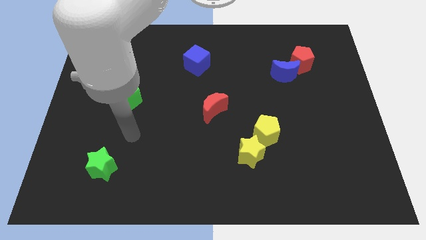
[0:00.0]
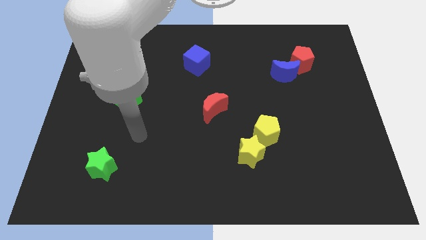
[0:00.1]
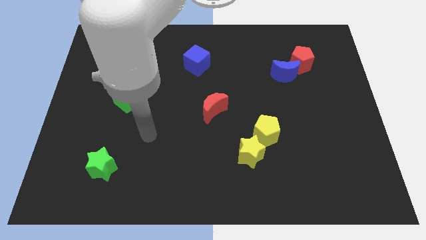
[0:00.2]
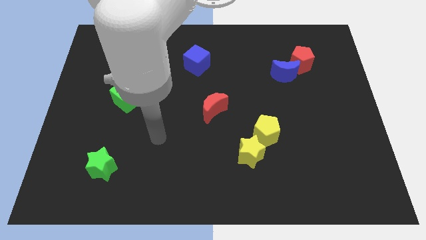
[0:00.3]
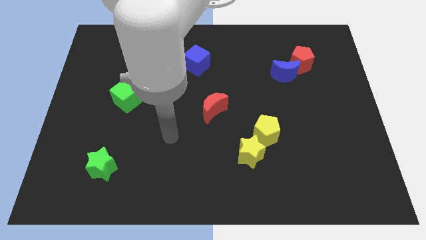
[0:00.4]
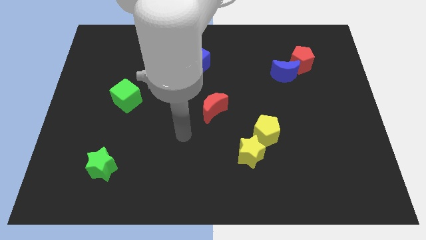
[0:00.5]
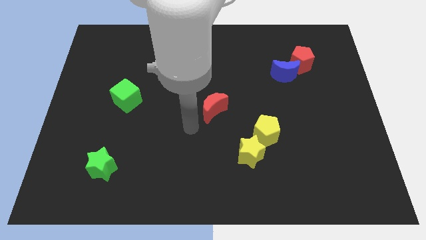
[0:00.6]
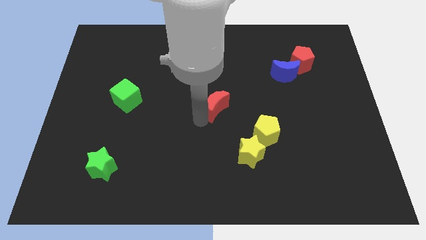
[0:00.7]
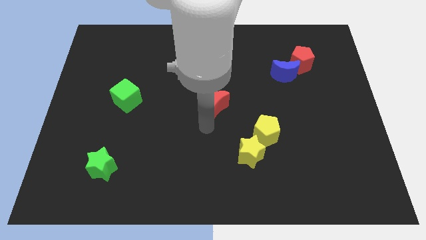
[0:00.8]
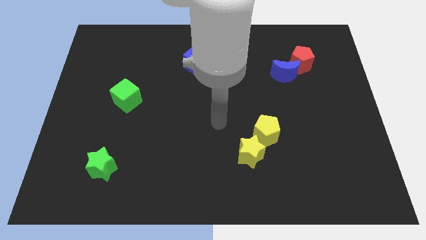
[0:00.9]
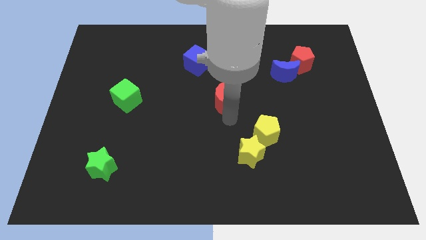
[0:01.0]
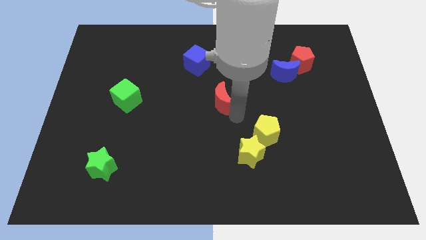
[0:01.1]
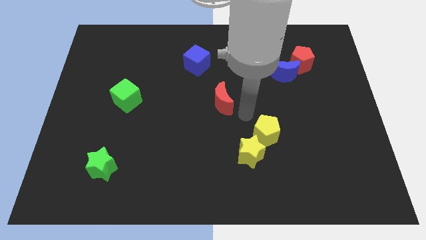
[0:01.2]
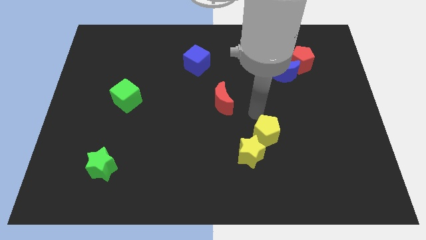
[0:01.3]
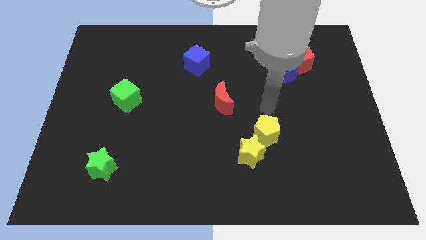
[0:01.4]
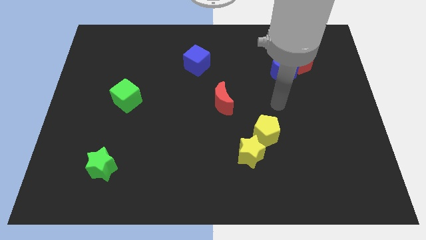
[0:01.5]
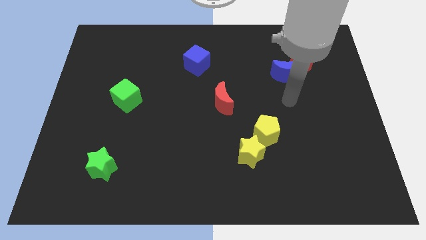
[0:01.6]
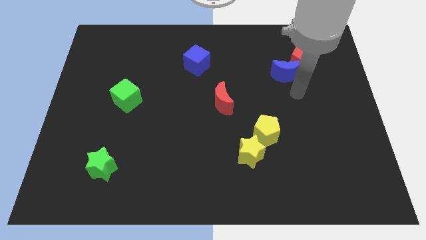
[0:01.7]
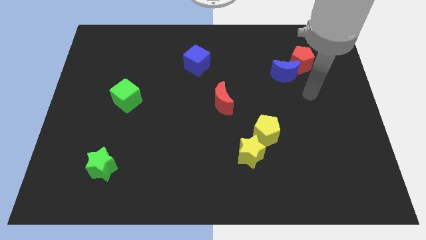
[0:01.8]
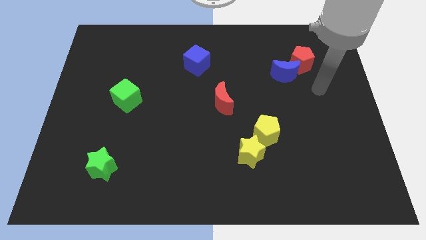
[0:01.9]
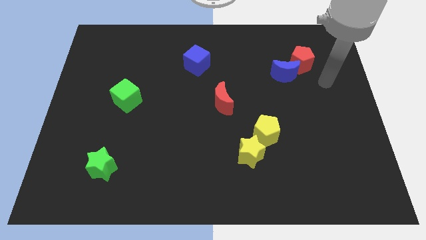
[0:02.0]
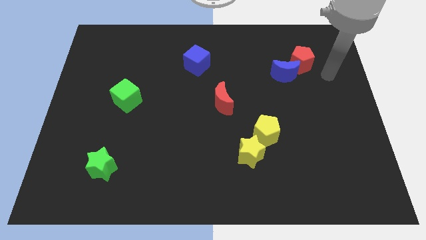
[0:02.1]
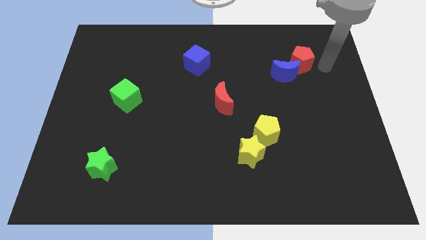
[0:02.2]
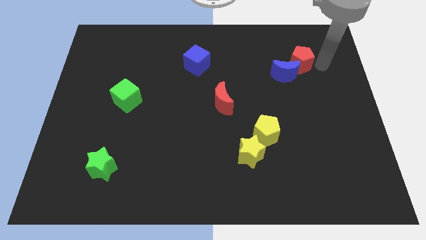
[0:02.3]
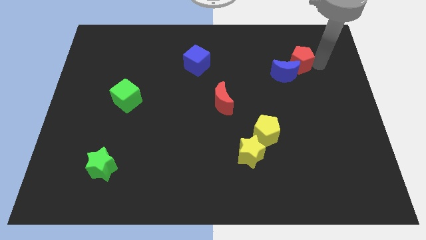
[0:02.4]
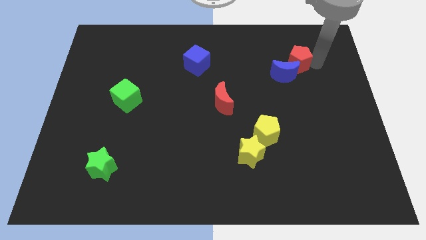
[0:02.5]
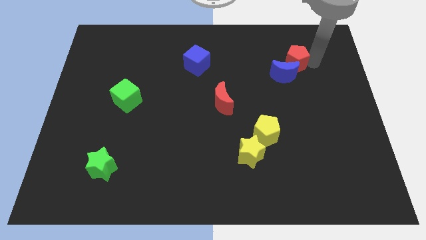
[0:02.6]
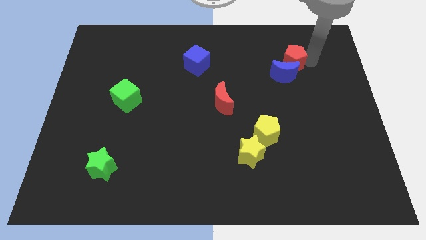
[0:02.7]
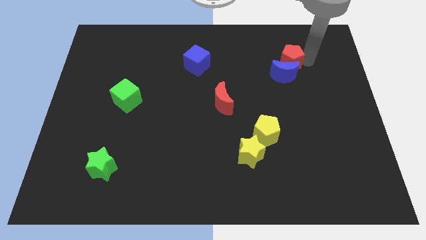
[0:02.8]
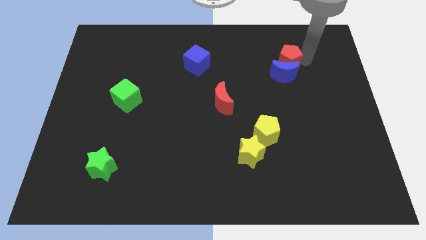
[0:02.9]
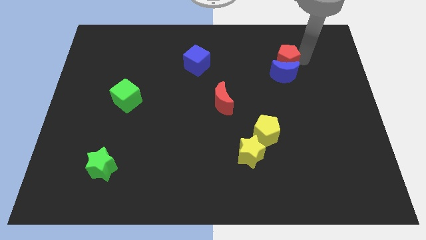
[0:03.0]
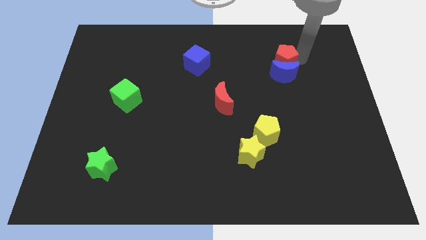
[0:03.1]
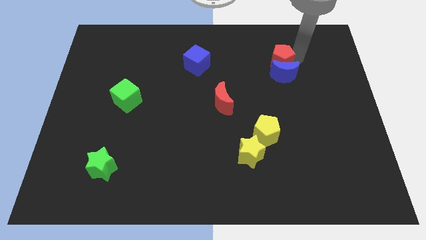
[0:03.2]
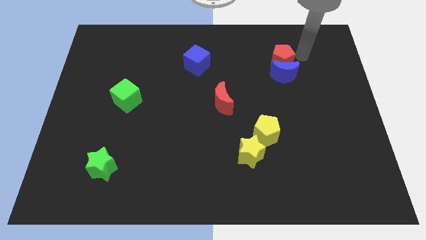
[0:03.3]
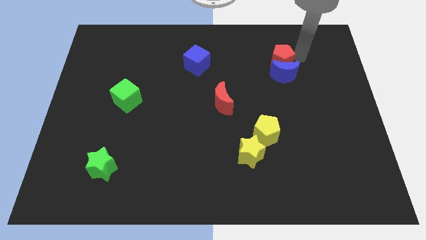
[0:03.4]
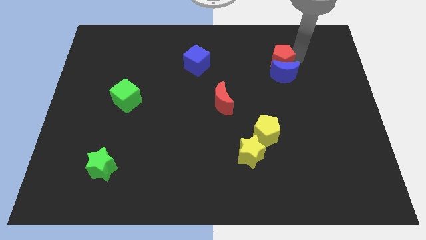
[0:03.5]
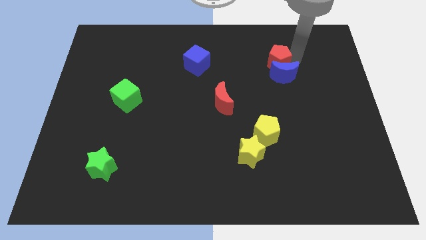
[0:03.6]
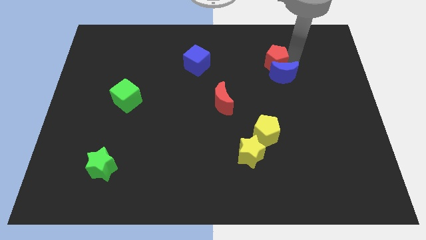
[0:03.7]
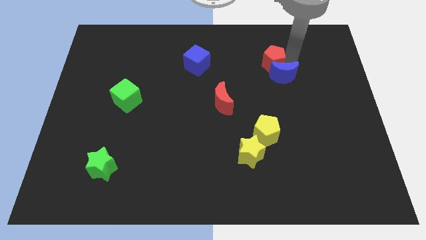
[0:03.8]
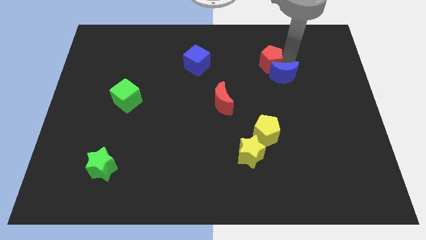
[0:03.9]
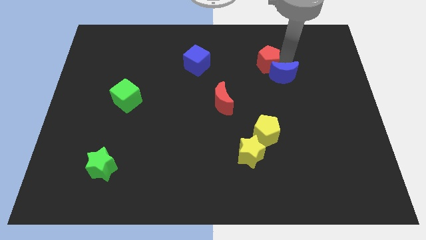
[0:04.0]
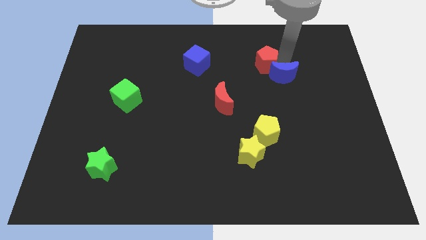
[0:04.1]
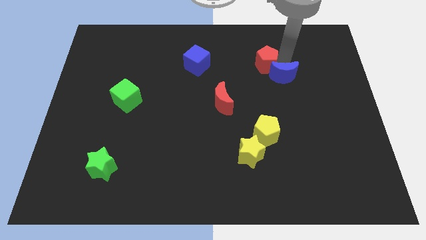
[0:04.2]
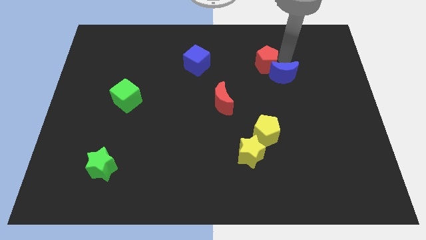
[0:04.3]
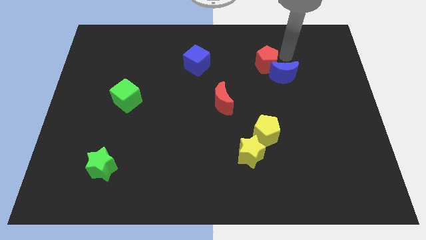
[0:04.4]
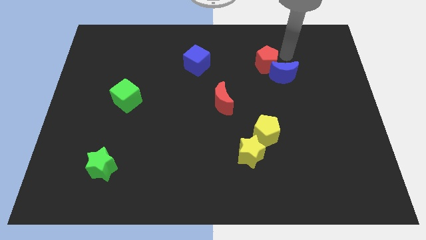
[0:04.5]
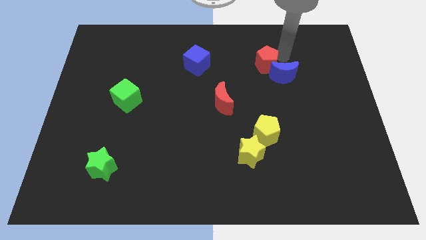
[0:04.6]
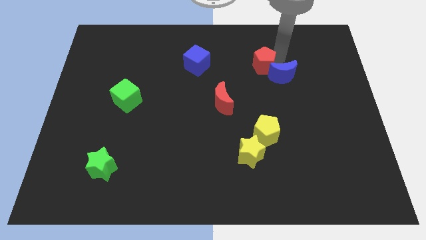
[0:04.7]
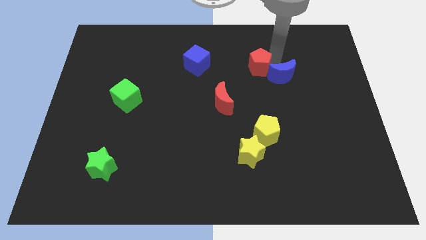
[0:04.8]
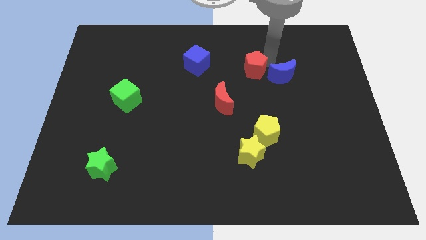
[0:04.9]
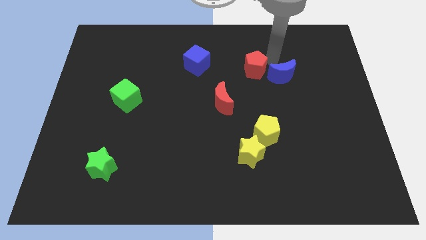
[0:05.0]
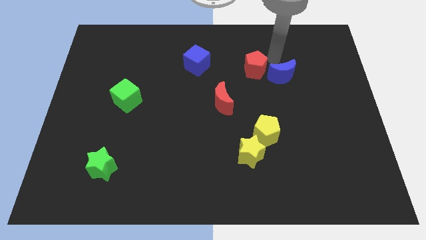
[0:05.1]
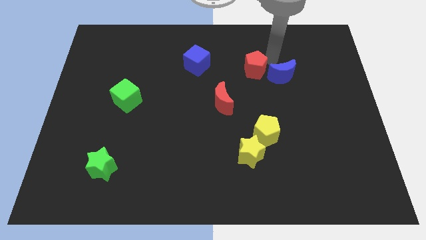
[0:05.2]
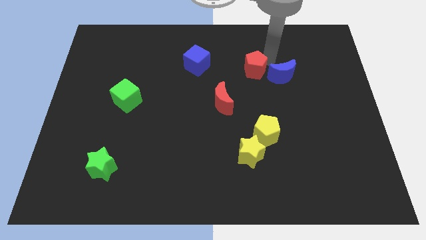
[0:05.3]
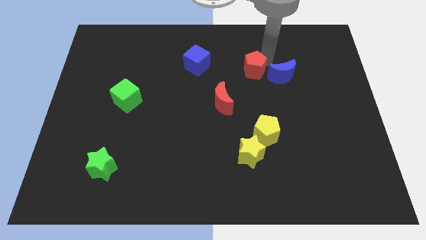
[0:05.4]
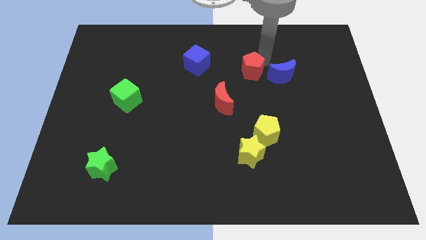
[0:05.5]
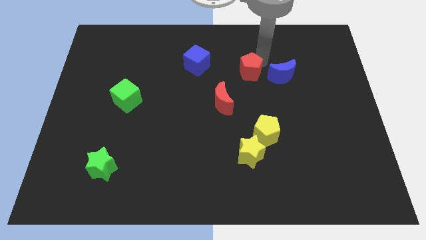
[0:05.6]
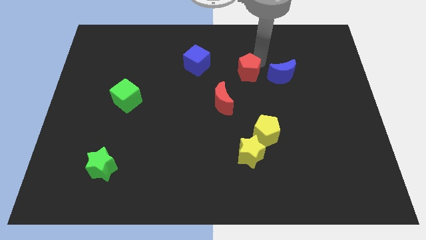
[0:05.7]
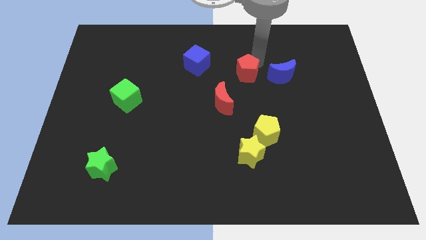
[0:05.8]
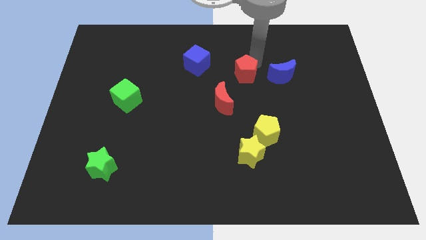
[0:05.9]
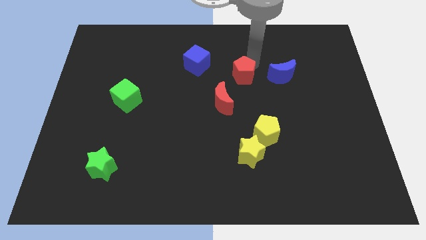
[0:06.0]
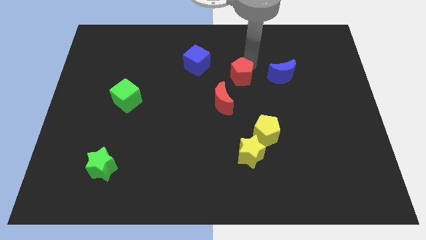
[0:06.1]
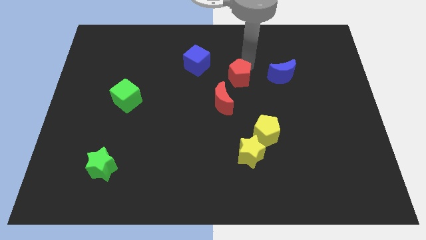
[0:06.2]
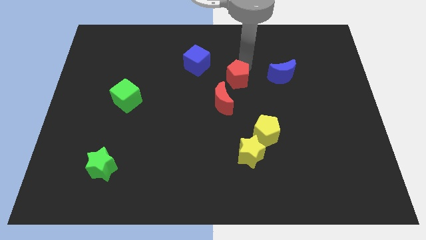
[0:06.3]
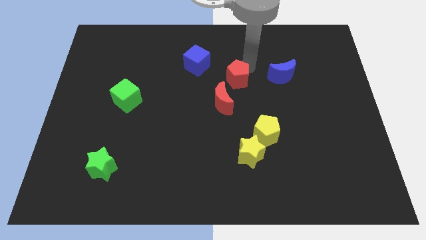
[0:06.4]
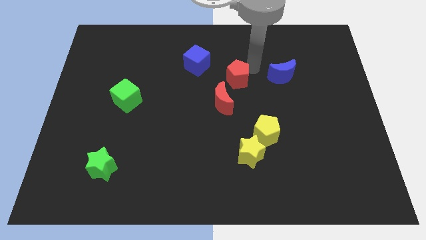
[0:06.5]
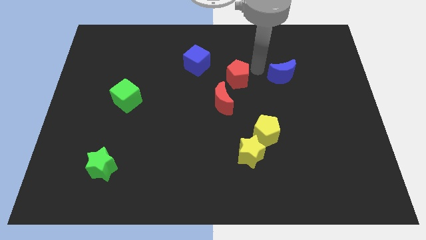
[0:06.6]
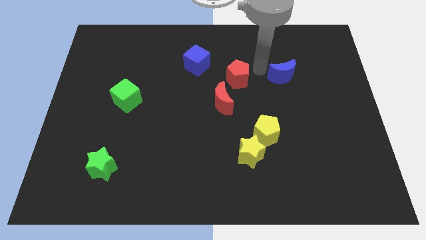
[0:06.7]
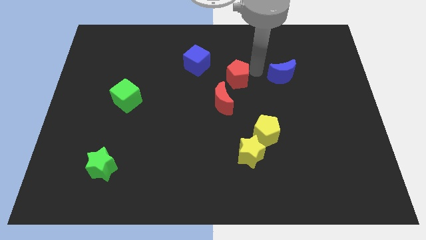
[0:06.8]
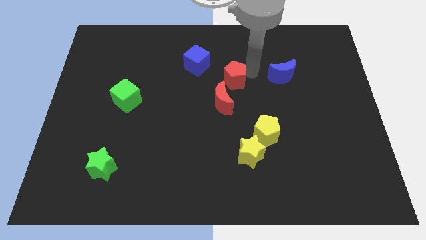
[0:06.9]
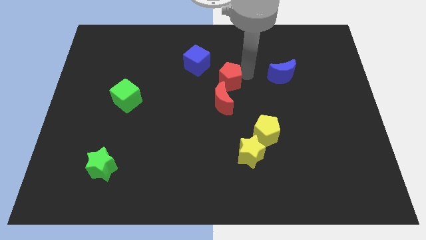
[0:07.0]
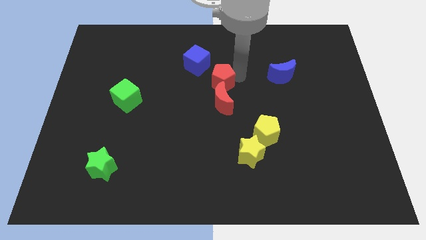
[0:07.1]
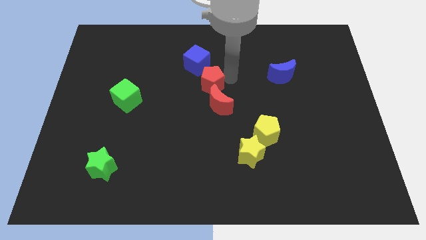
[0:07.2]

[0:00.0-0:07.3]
put the red pentagon to the bottom of the blue cube
